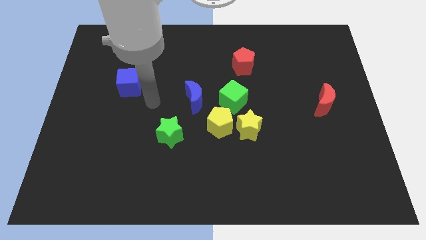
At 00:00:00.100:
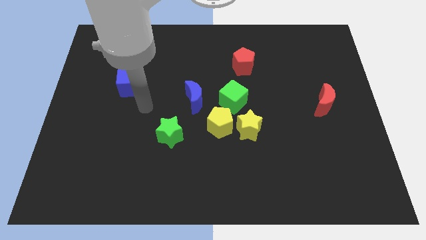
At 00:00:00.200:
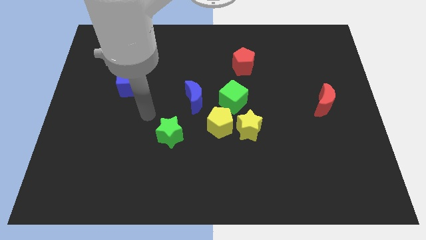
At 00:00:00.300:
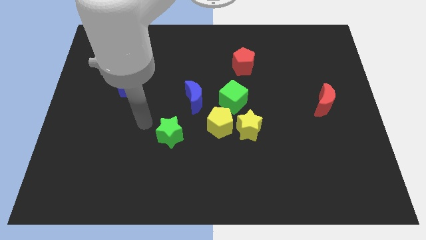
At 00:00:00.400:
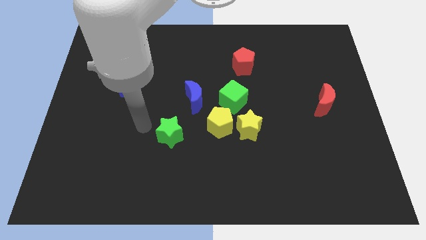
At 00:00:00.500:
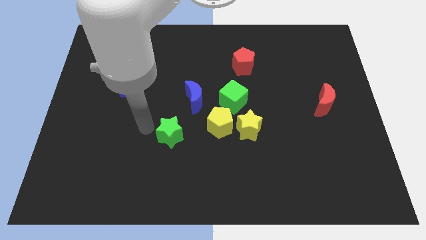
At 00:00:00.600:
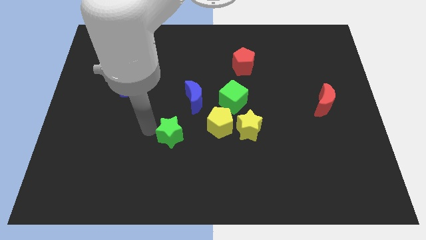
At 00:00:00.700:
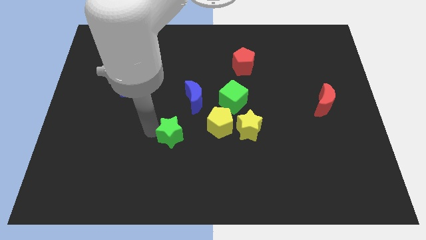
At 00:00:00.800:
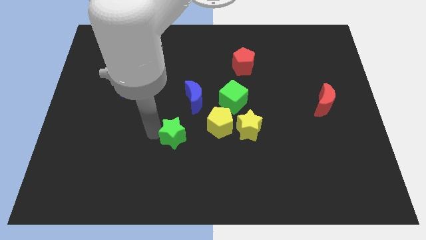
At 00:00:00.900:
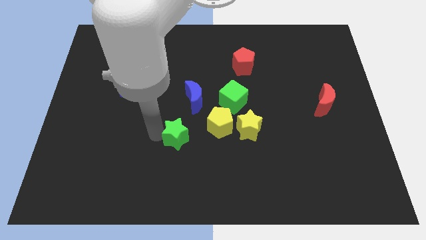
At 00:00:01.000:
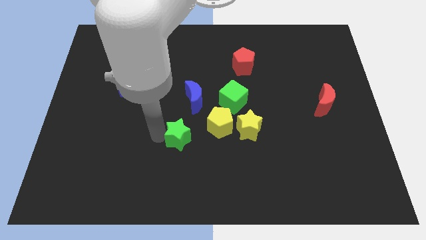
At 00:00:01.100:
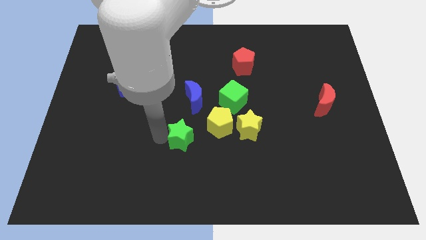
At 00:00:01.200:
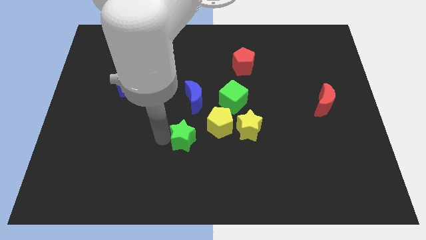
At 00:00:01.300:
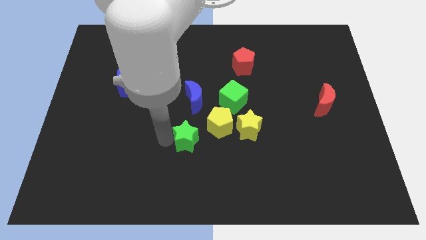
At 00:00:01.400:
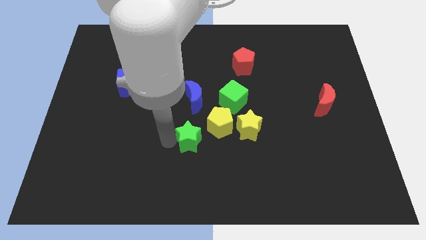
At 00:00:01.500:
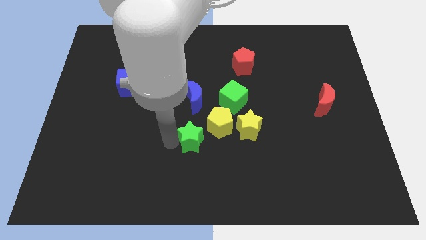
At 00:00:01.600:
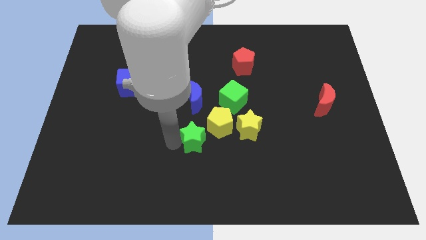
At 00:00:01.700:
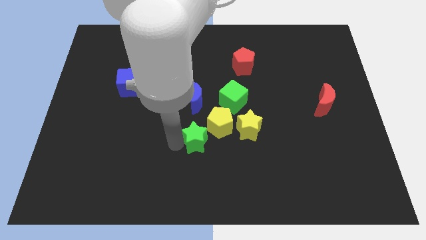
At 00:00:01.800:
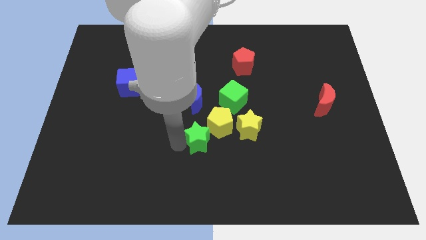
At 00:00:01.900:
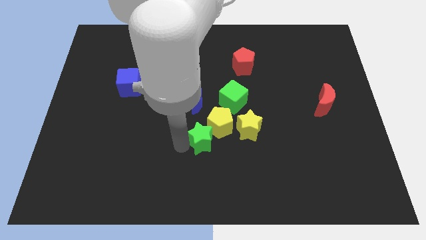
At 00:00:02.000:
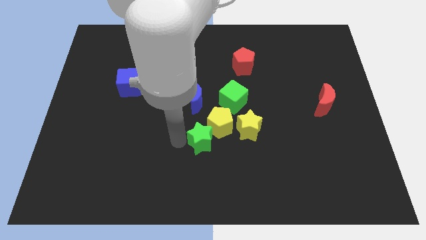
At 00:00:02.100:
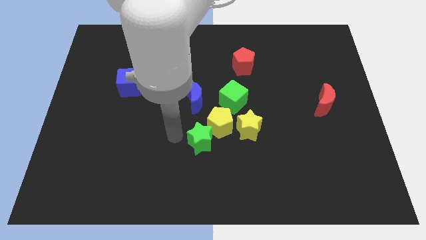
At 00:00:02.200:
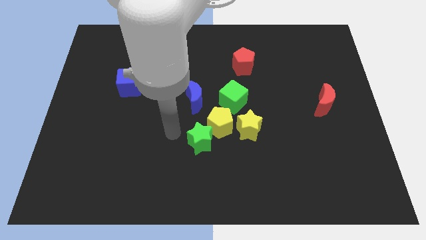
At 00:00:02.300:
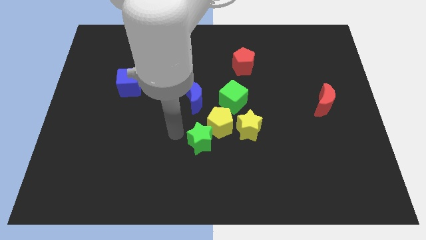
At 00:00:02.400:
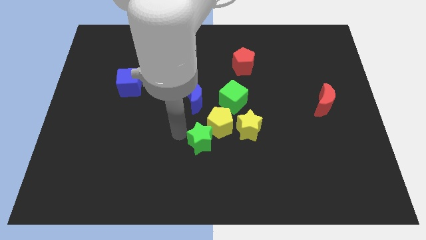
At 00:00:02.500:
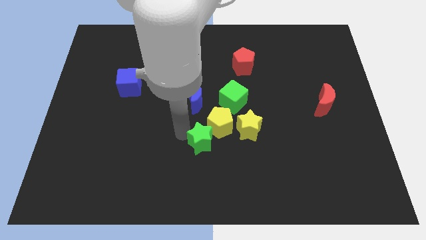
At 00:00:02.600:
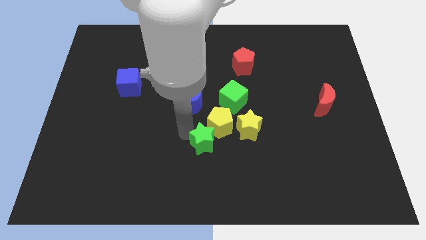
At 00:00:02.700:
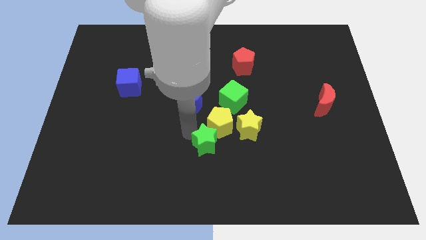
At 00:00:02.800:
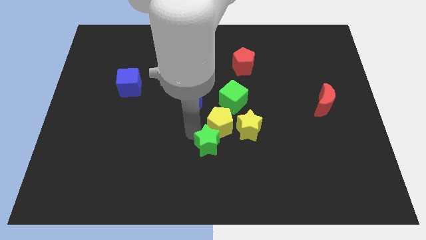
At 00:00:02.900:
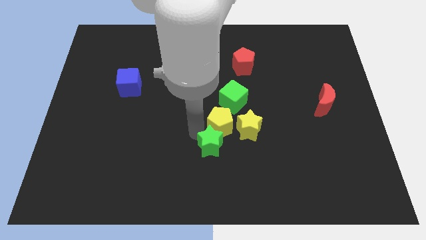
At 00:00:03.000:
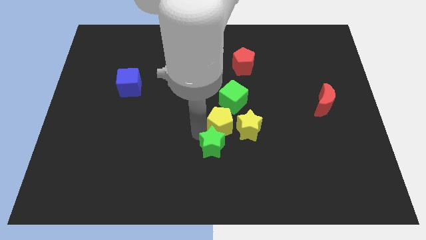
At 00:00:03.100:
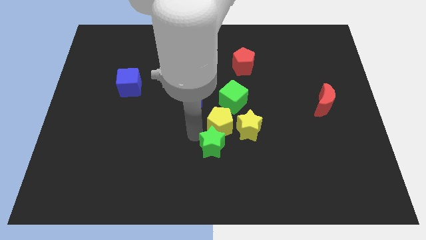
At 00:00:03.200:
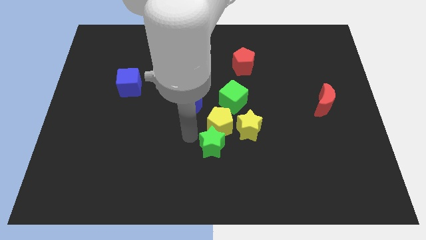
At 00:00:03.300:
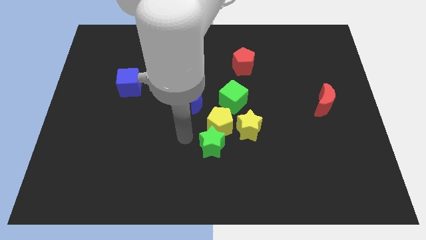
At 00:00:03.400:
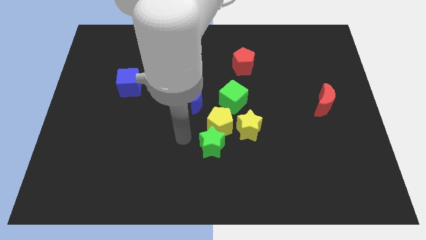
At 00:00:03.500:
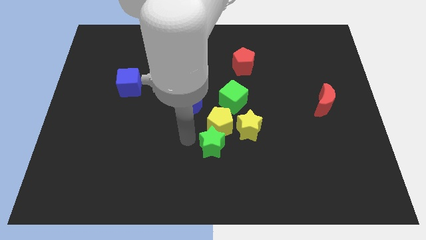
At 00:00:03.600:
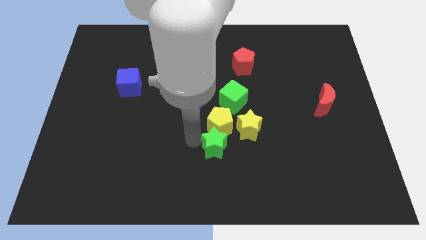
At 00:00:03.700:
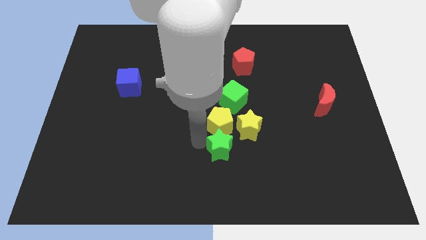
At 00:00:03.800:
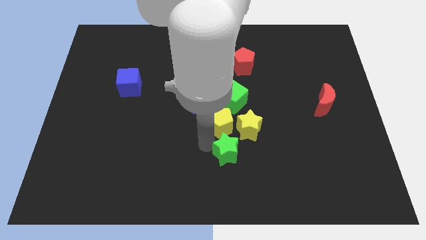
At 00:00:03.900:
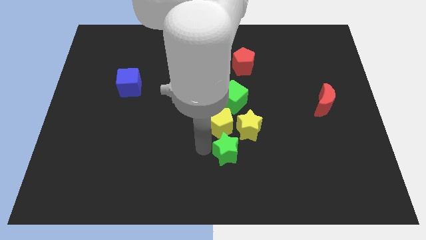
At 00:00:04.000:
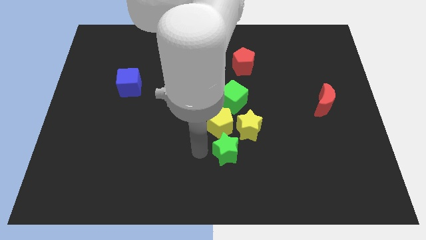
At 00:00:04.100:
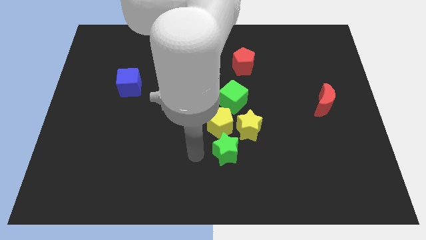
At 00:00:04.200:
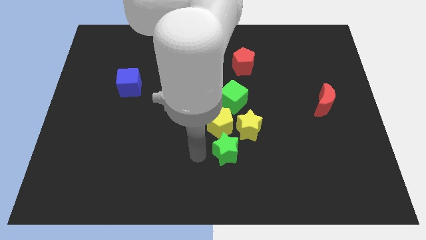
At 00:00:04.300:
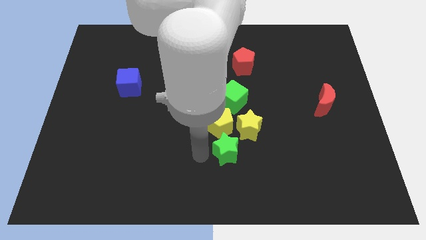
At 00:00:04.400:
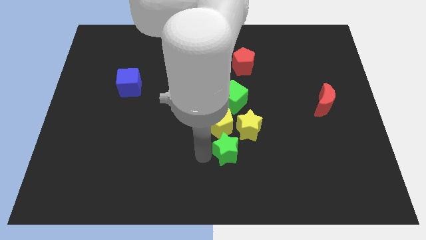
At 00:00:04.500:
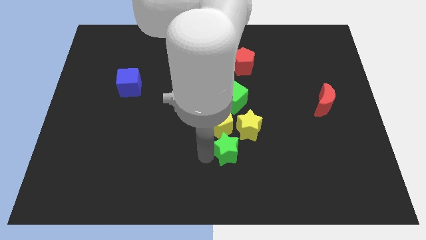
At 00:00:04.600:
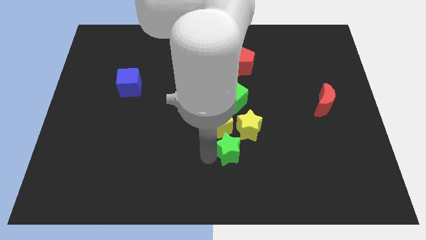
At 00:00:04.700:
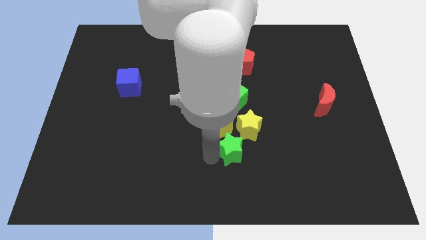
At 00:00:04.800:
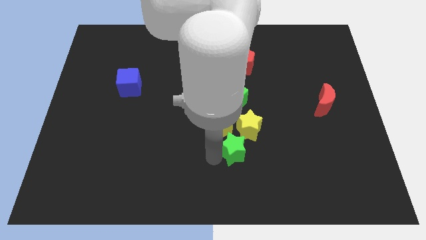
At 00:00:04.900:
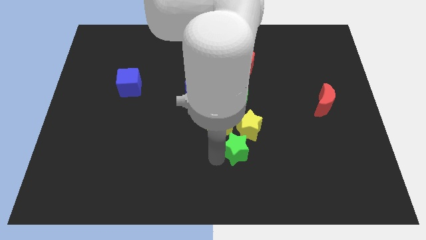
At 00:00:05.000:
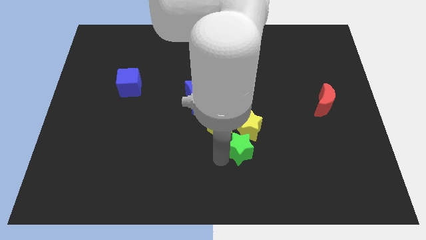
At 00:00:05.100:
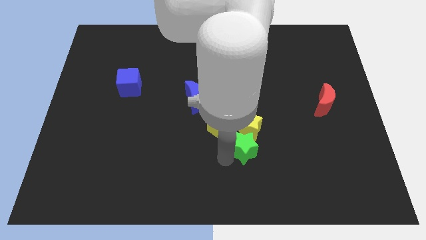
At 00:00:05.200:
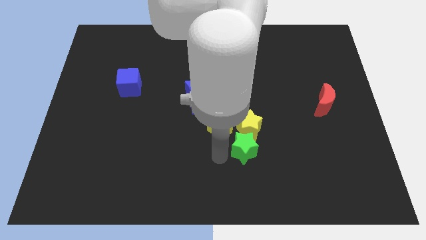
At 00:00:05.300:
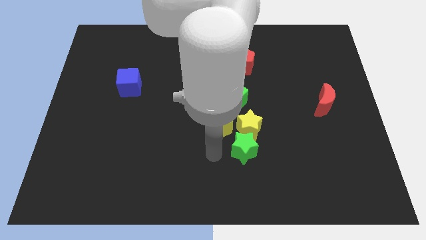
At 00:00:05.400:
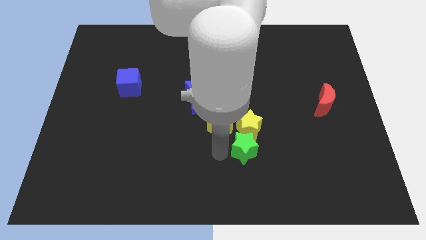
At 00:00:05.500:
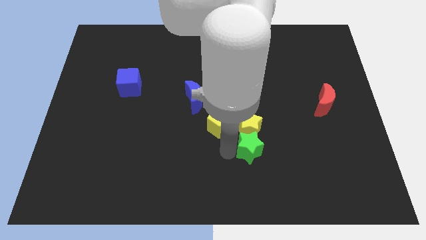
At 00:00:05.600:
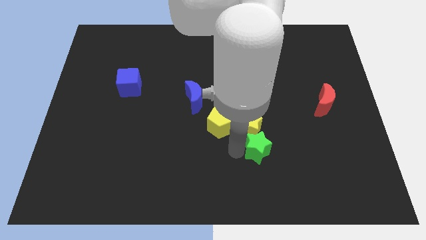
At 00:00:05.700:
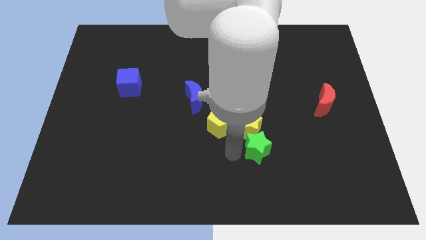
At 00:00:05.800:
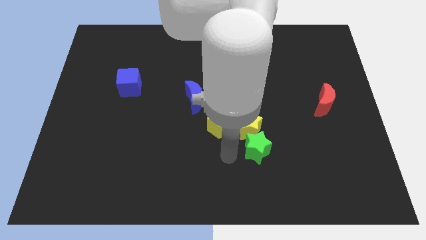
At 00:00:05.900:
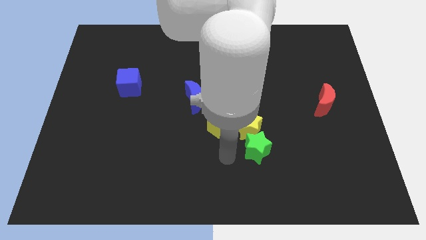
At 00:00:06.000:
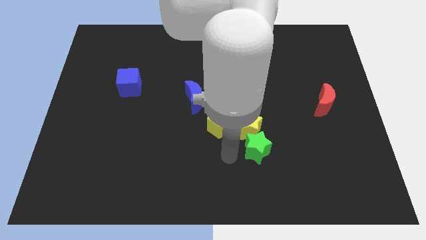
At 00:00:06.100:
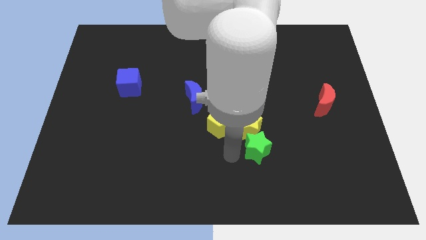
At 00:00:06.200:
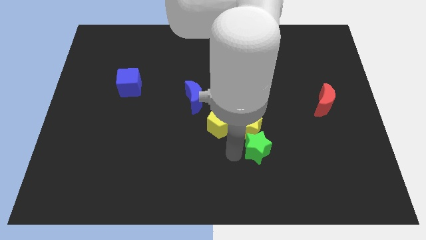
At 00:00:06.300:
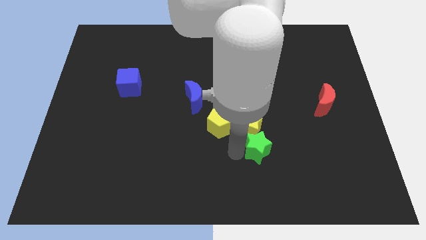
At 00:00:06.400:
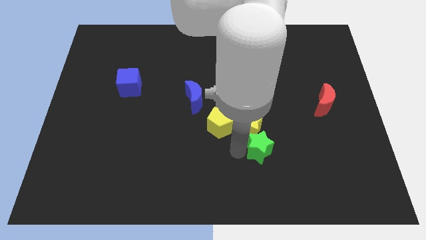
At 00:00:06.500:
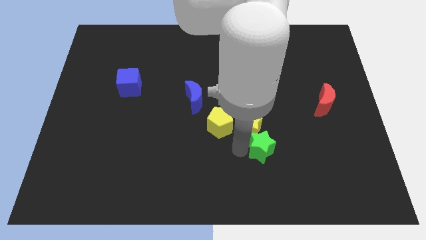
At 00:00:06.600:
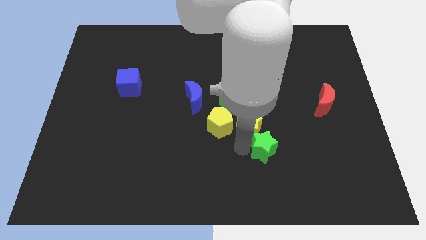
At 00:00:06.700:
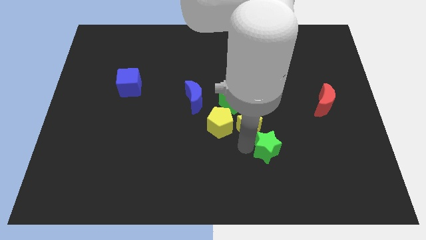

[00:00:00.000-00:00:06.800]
slide the green star to the right

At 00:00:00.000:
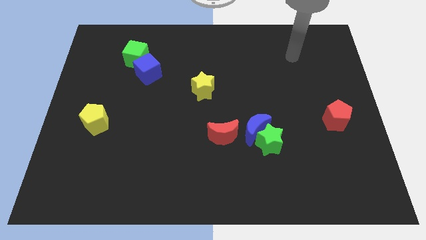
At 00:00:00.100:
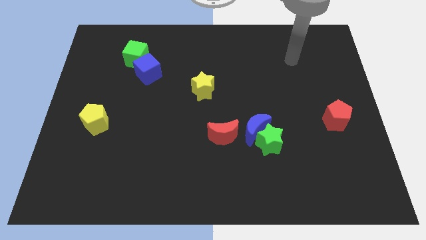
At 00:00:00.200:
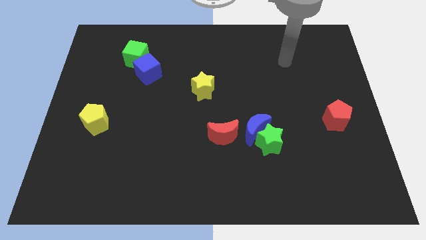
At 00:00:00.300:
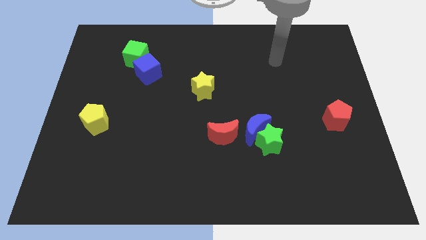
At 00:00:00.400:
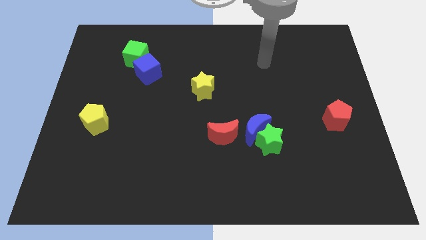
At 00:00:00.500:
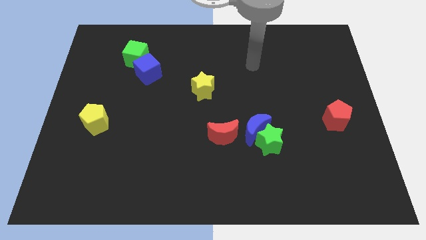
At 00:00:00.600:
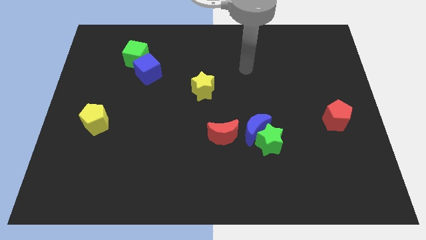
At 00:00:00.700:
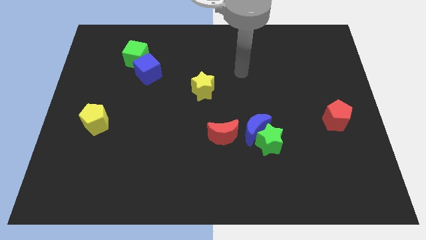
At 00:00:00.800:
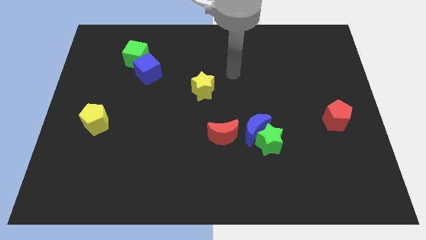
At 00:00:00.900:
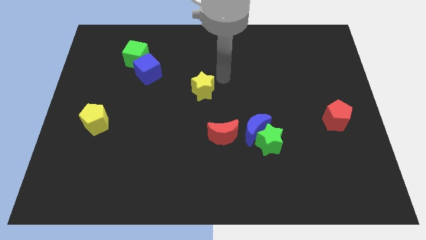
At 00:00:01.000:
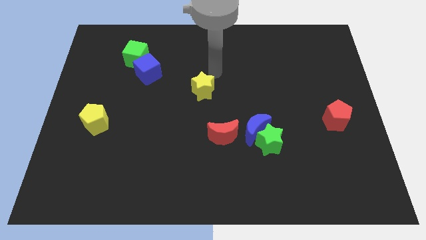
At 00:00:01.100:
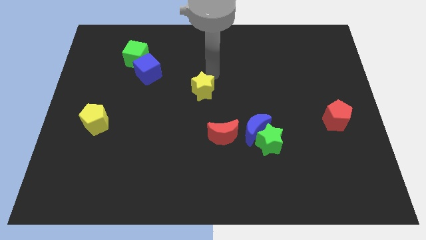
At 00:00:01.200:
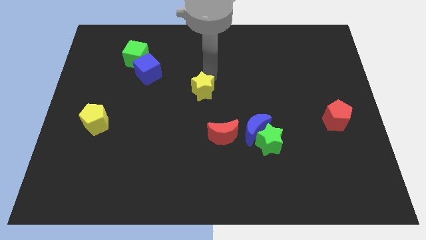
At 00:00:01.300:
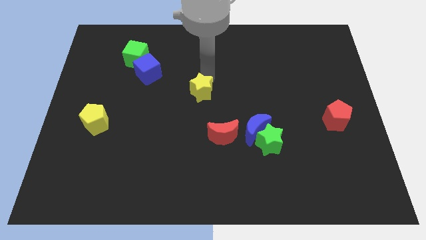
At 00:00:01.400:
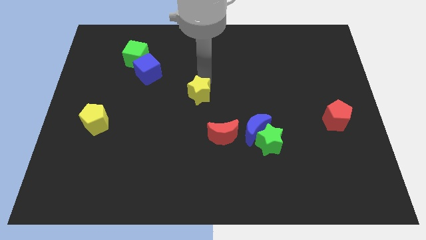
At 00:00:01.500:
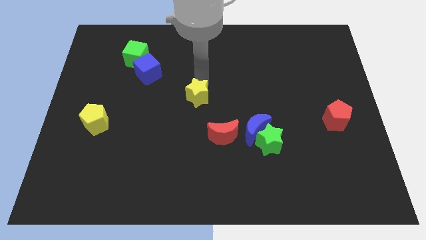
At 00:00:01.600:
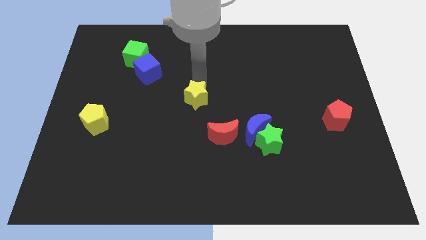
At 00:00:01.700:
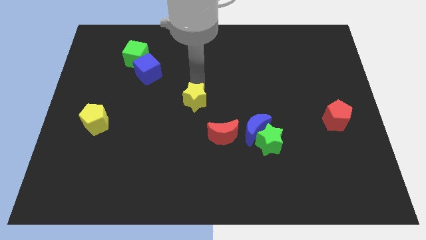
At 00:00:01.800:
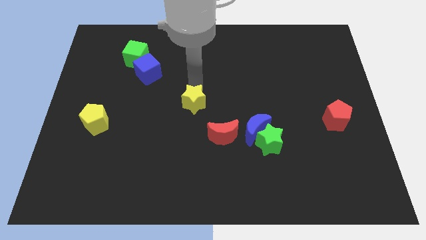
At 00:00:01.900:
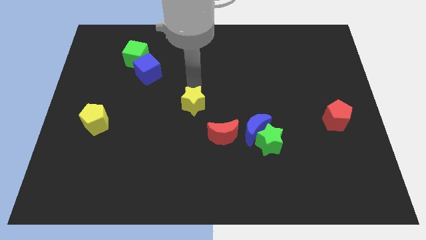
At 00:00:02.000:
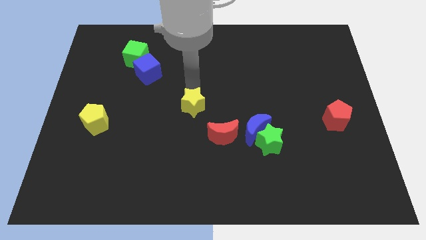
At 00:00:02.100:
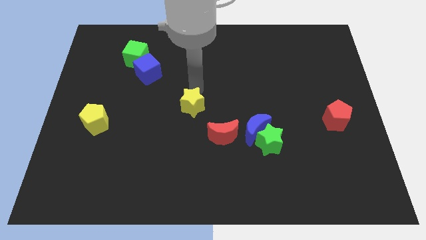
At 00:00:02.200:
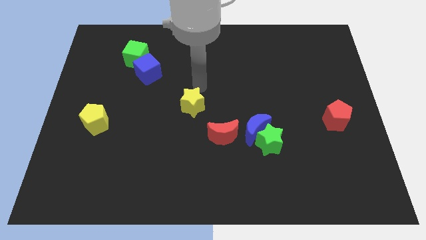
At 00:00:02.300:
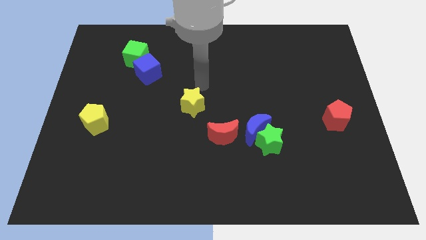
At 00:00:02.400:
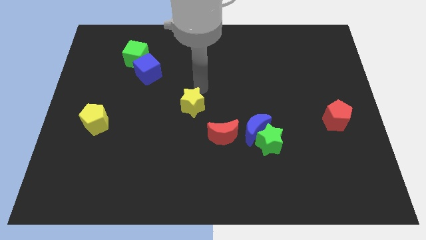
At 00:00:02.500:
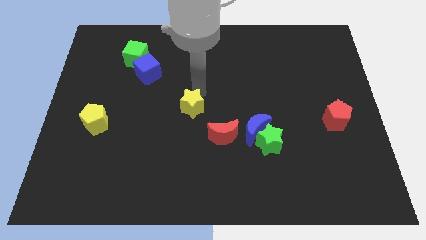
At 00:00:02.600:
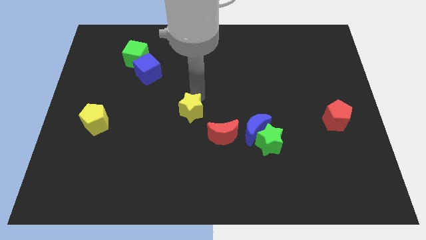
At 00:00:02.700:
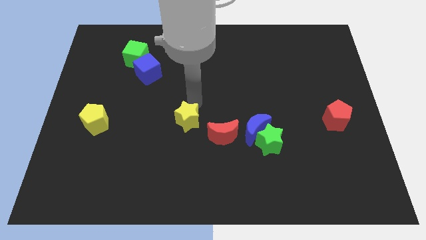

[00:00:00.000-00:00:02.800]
move the yellow star a bit down
